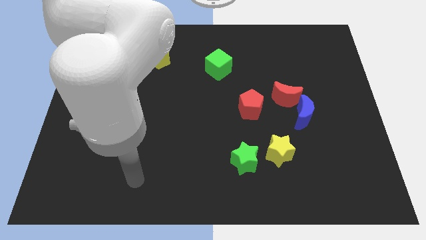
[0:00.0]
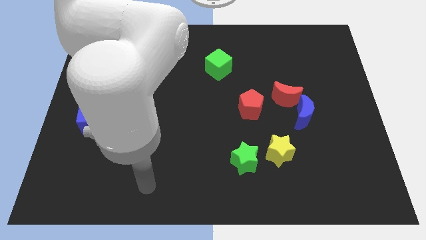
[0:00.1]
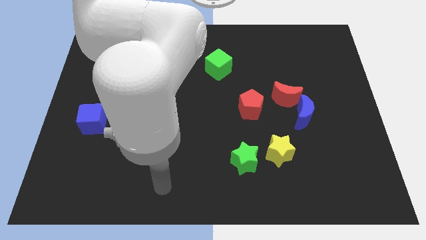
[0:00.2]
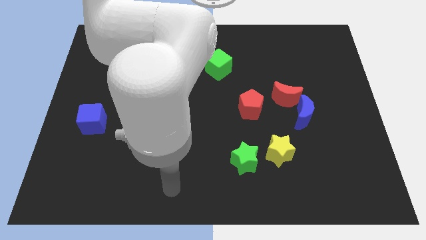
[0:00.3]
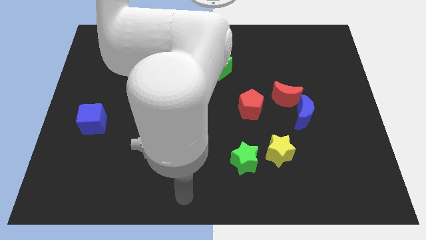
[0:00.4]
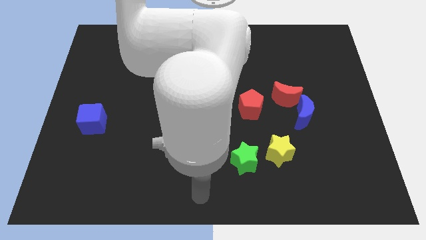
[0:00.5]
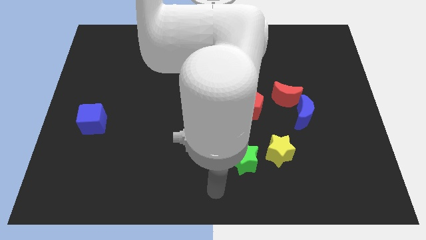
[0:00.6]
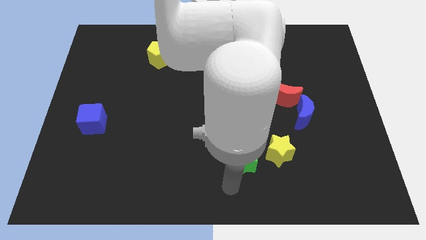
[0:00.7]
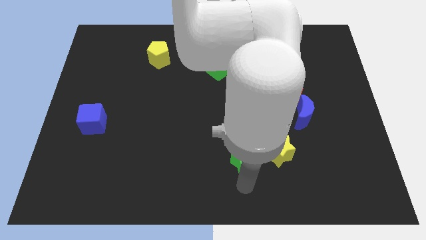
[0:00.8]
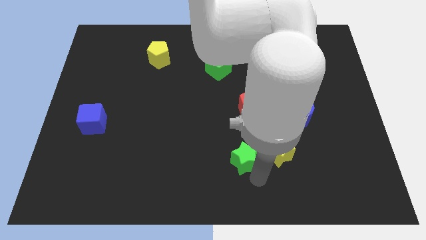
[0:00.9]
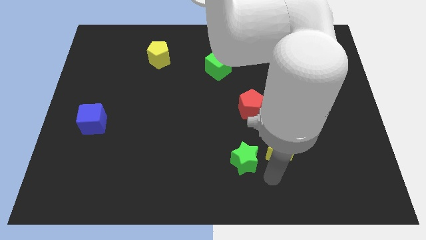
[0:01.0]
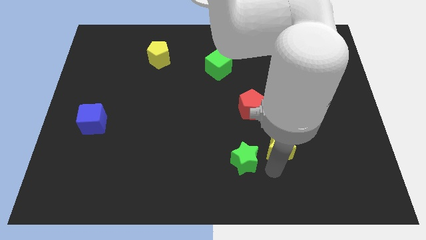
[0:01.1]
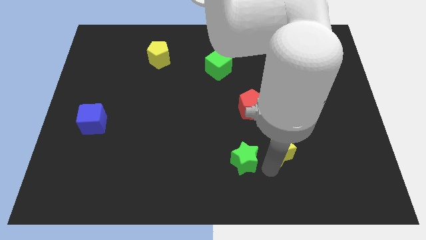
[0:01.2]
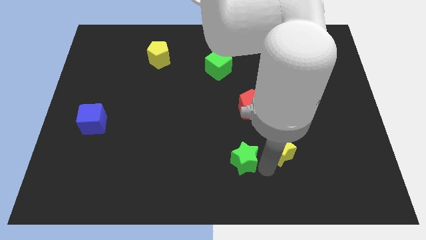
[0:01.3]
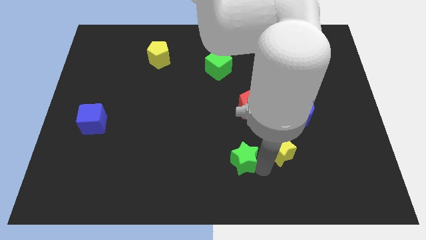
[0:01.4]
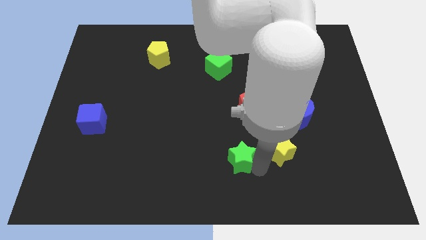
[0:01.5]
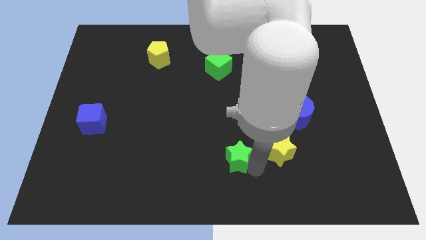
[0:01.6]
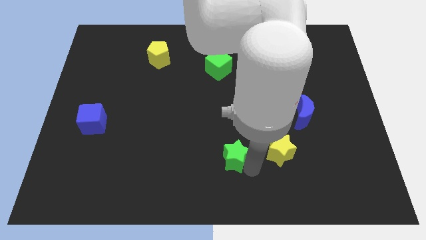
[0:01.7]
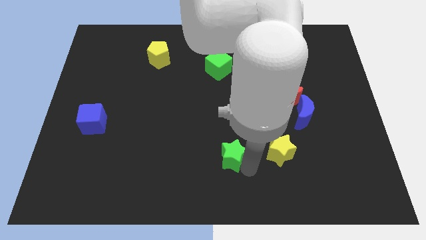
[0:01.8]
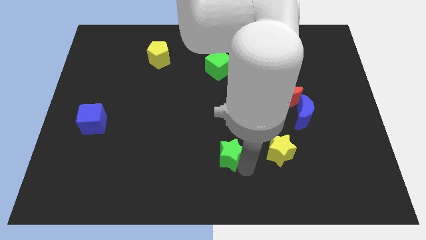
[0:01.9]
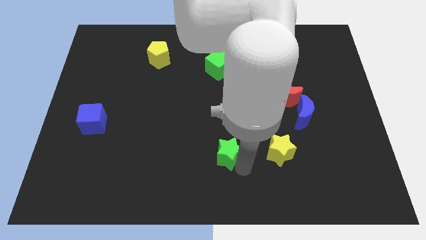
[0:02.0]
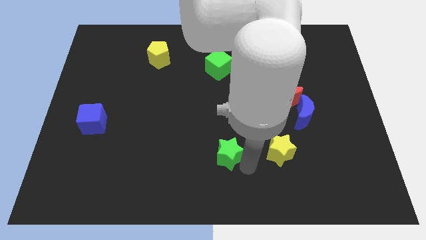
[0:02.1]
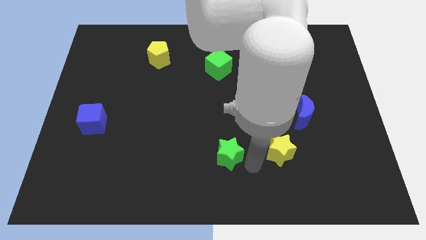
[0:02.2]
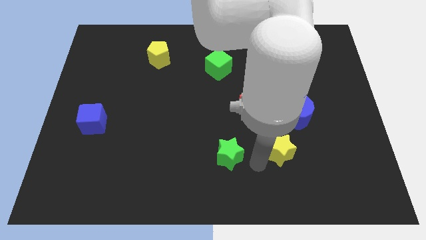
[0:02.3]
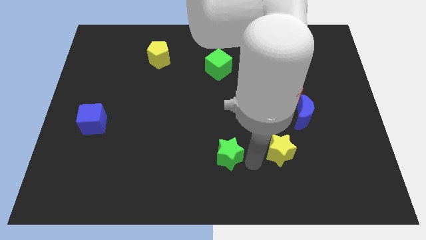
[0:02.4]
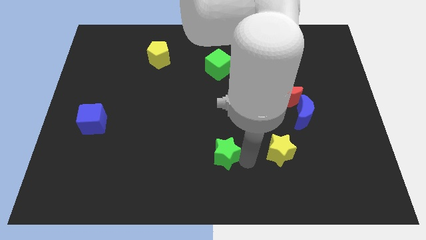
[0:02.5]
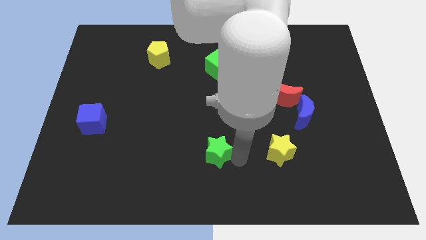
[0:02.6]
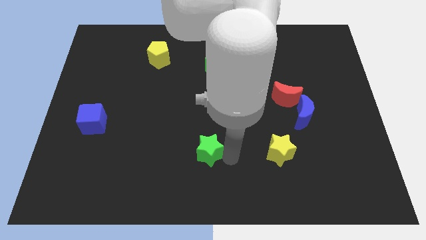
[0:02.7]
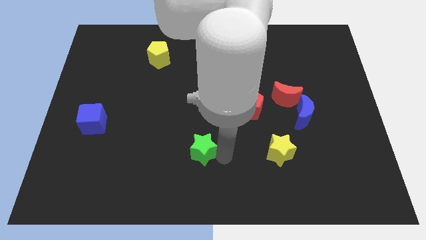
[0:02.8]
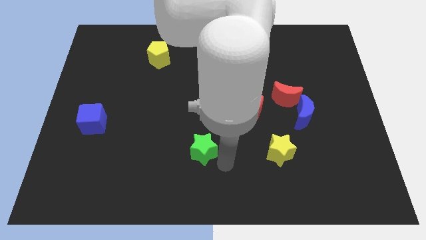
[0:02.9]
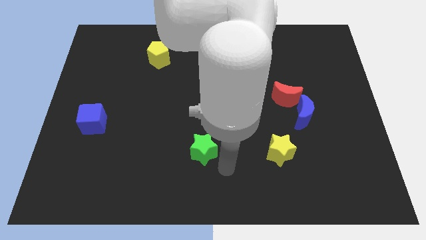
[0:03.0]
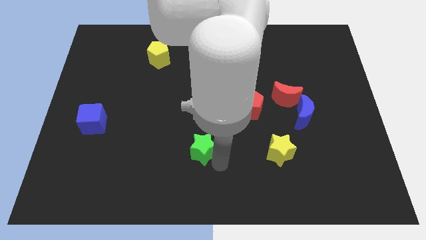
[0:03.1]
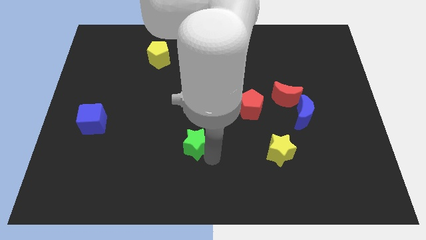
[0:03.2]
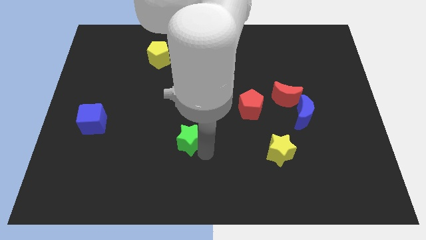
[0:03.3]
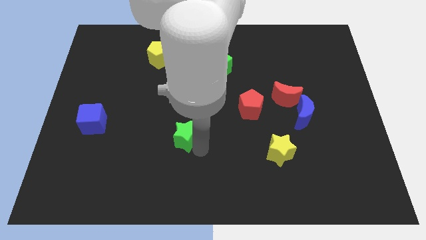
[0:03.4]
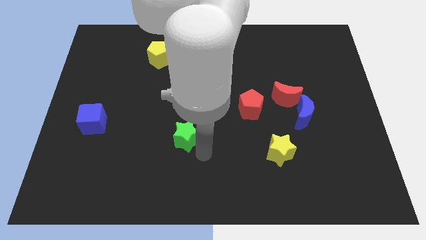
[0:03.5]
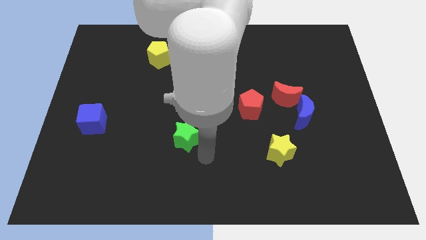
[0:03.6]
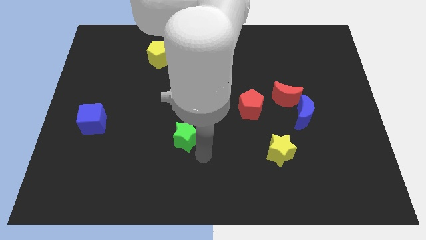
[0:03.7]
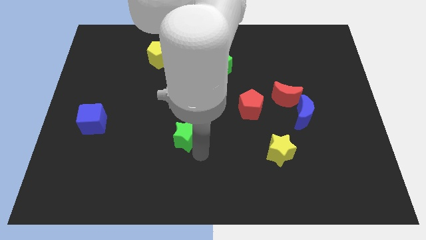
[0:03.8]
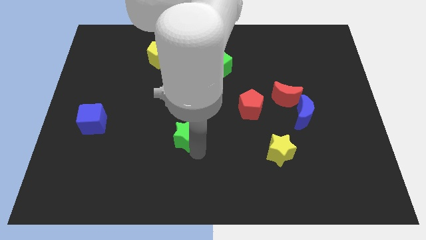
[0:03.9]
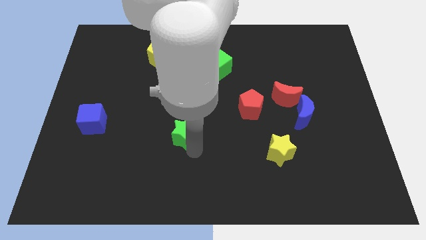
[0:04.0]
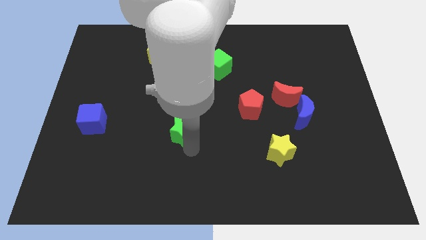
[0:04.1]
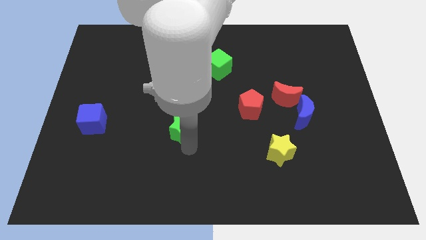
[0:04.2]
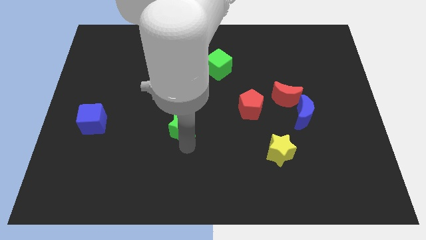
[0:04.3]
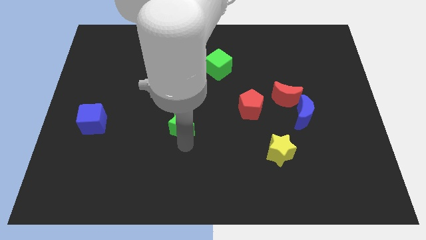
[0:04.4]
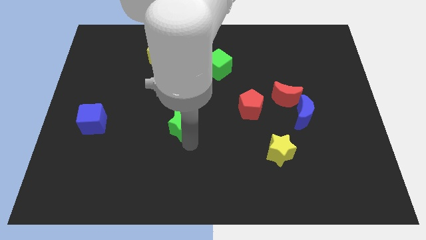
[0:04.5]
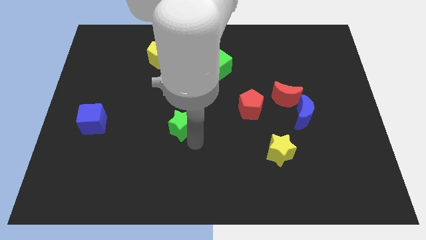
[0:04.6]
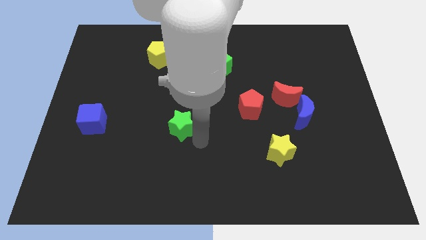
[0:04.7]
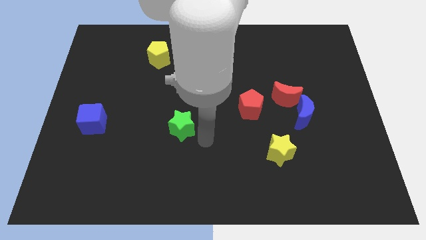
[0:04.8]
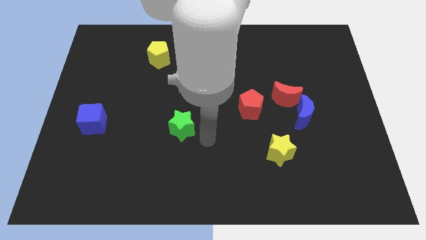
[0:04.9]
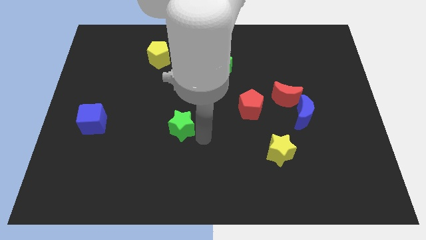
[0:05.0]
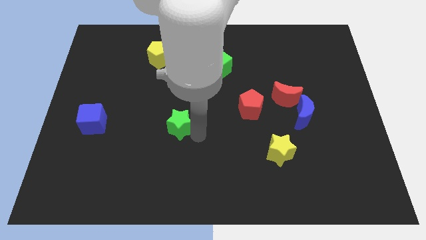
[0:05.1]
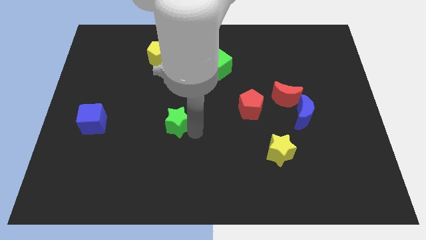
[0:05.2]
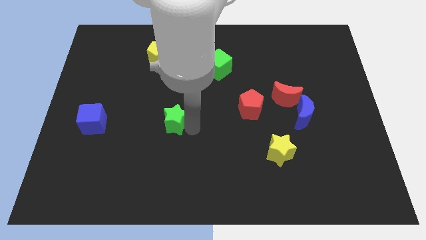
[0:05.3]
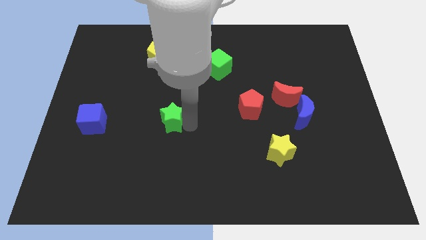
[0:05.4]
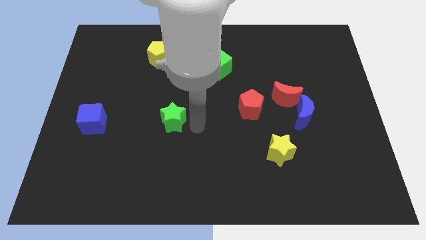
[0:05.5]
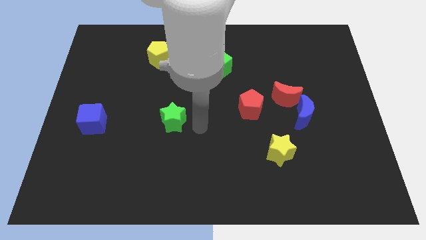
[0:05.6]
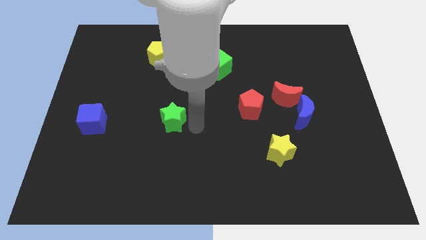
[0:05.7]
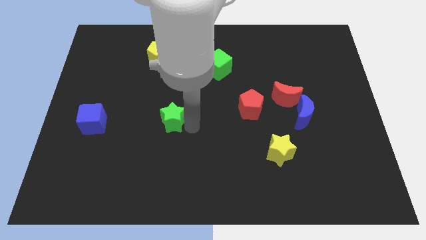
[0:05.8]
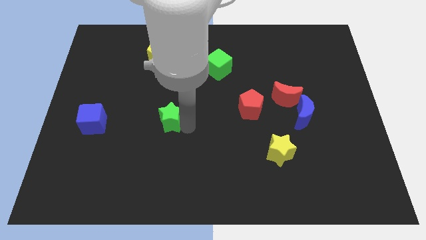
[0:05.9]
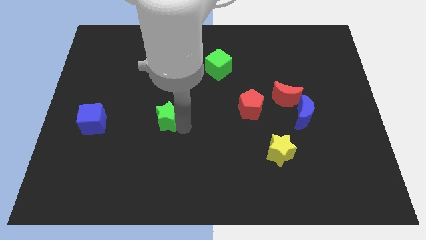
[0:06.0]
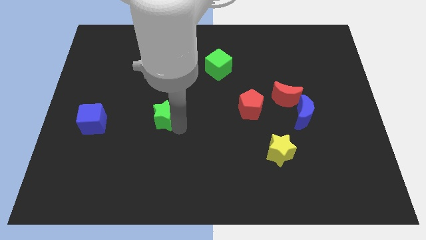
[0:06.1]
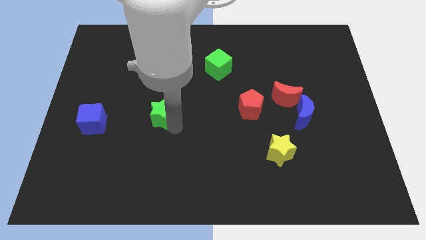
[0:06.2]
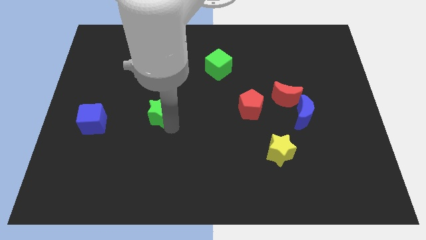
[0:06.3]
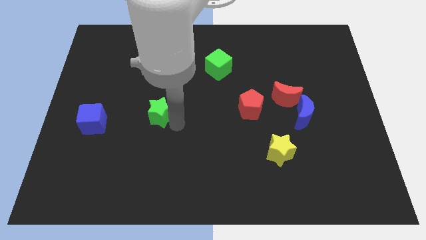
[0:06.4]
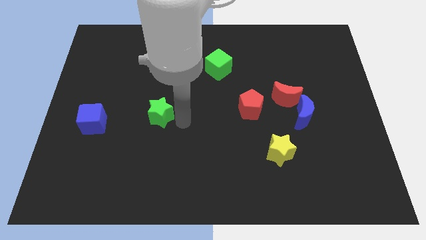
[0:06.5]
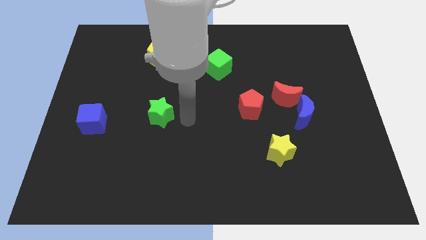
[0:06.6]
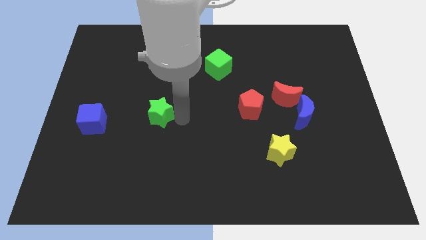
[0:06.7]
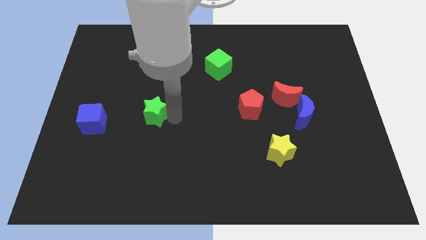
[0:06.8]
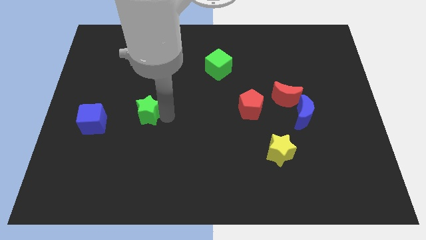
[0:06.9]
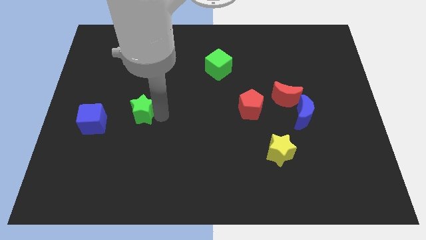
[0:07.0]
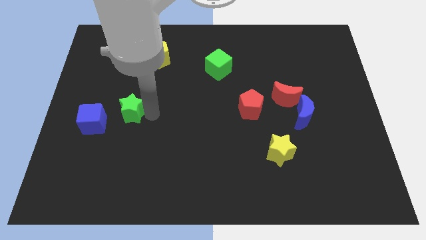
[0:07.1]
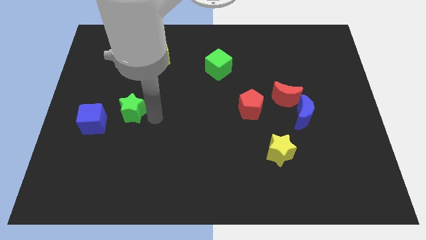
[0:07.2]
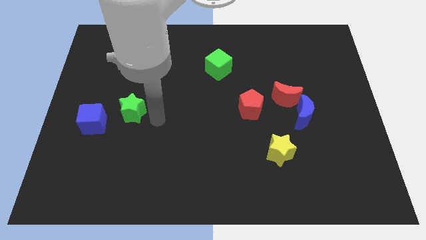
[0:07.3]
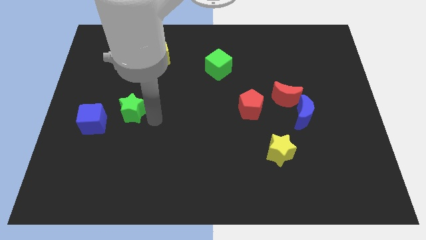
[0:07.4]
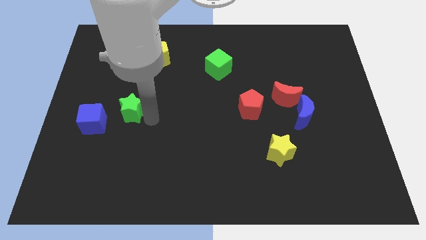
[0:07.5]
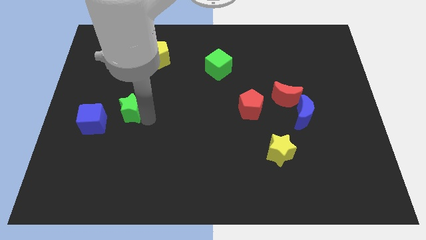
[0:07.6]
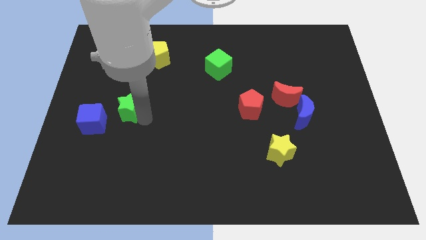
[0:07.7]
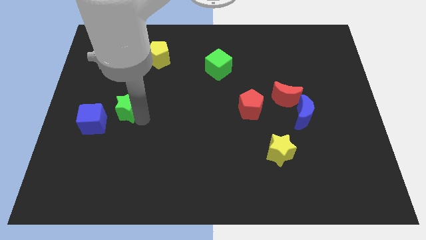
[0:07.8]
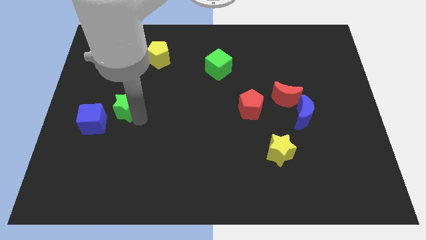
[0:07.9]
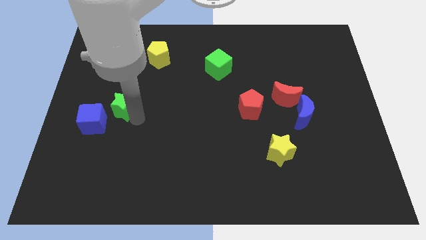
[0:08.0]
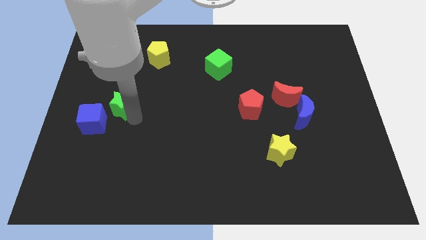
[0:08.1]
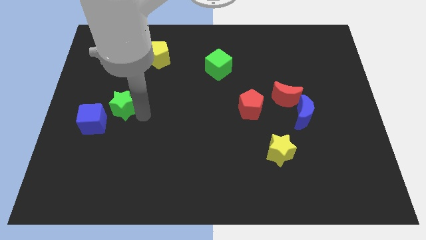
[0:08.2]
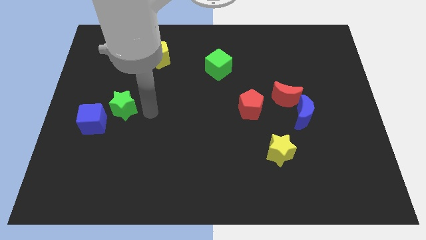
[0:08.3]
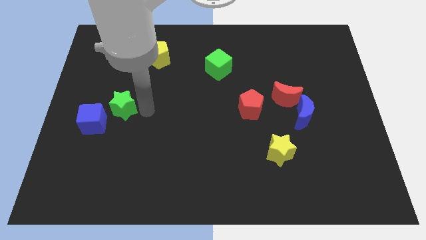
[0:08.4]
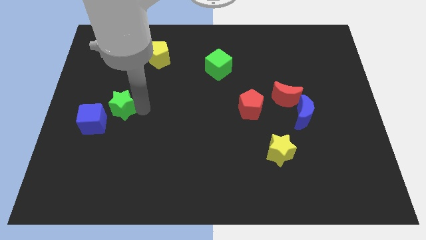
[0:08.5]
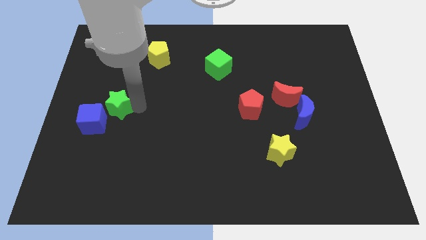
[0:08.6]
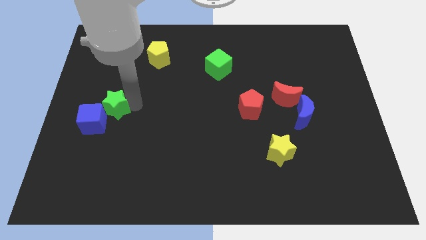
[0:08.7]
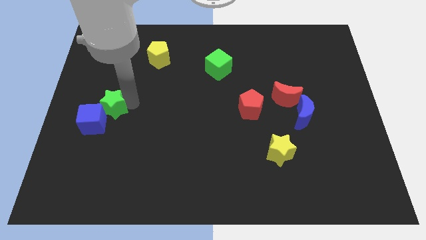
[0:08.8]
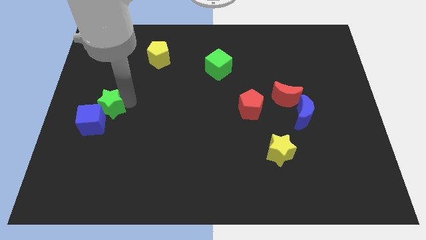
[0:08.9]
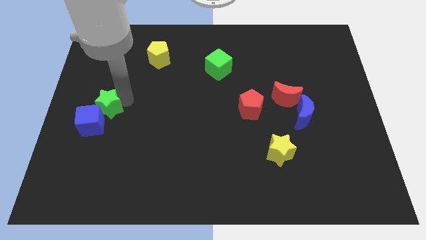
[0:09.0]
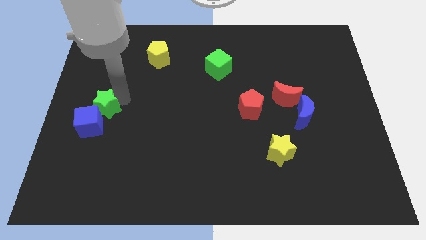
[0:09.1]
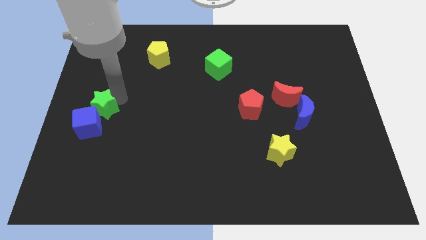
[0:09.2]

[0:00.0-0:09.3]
move the green star to the left side
